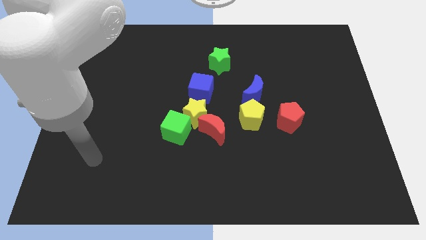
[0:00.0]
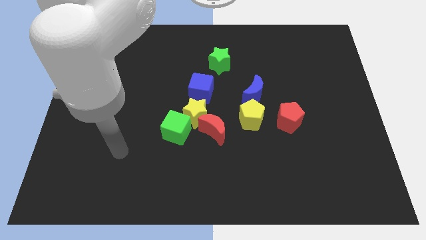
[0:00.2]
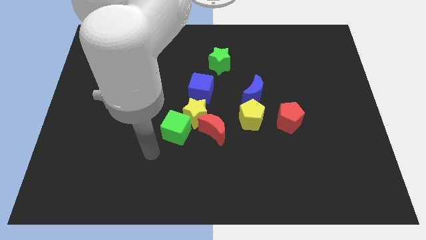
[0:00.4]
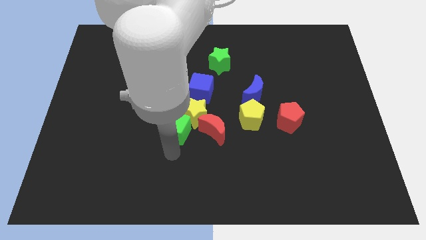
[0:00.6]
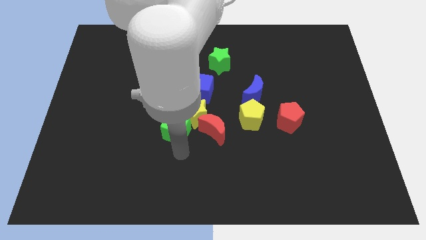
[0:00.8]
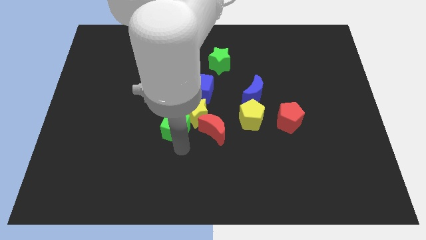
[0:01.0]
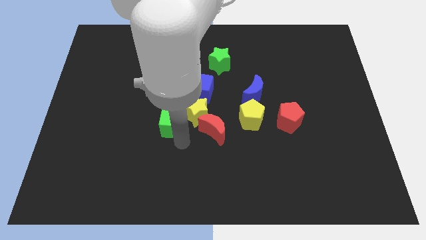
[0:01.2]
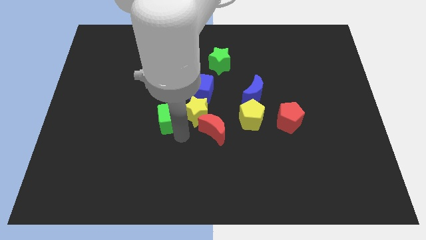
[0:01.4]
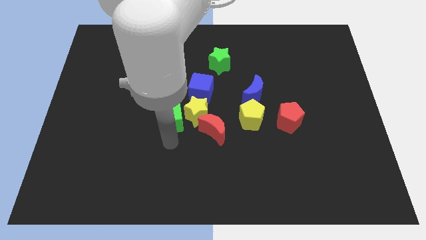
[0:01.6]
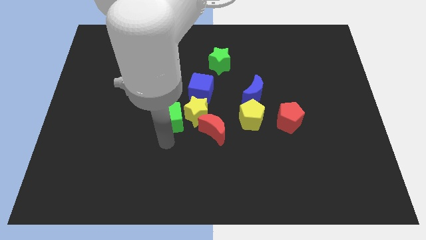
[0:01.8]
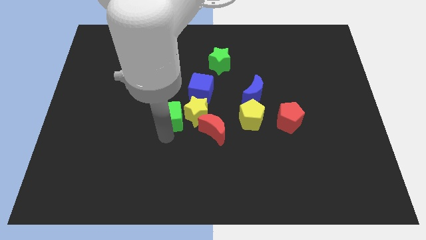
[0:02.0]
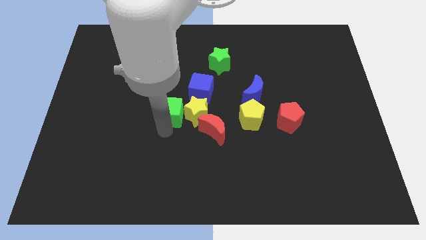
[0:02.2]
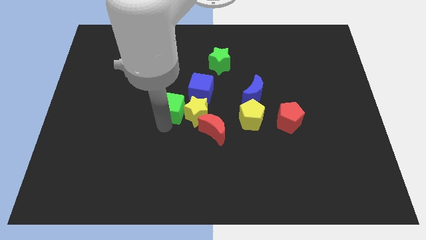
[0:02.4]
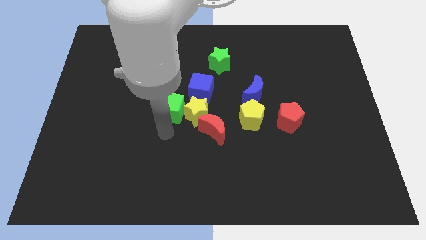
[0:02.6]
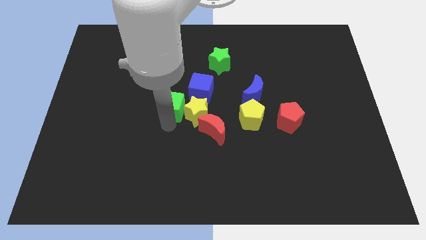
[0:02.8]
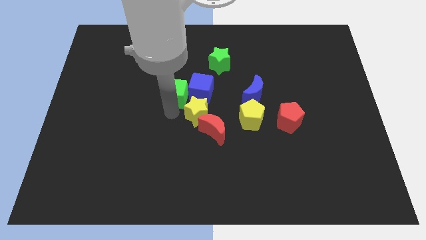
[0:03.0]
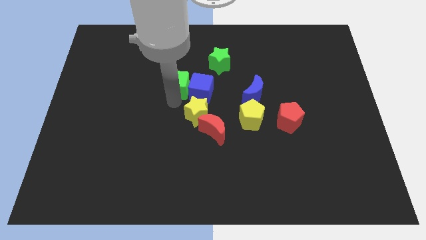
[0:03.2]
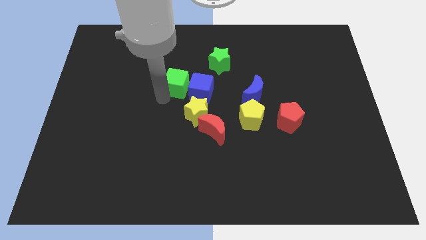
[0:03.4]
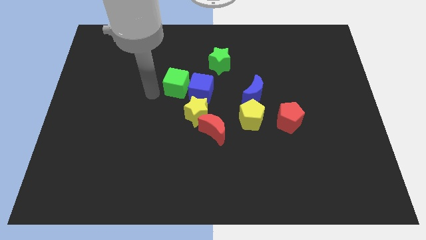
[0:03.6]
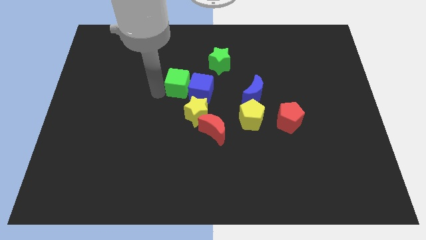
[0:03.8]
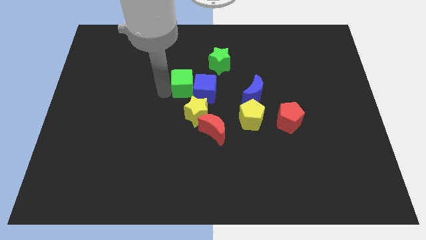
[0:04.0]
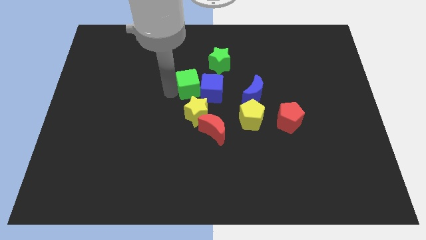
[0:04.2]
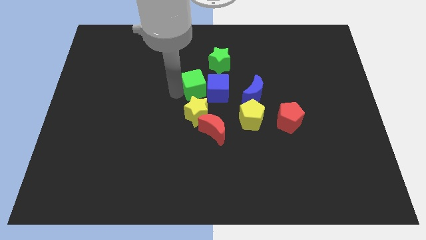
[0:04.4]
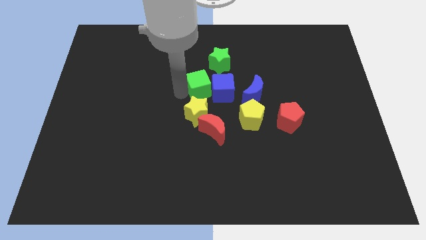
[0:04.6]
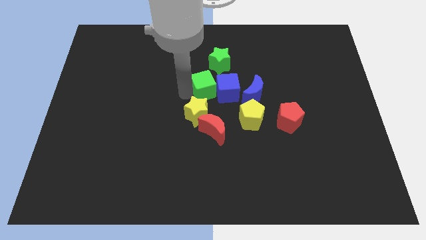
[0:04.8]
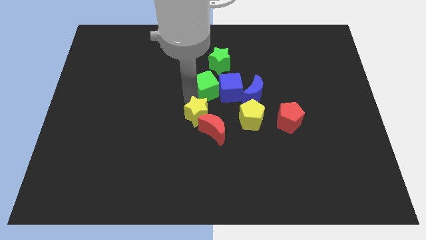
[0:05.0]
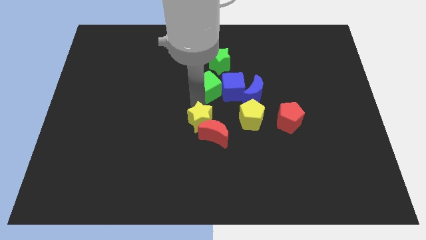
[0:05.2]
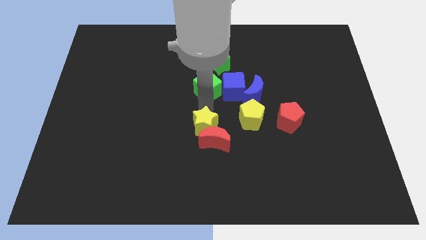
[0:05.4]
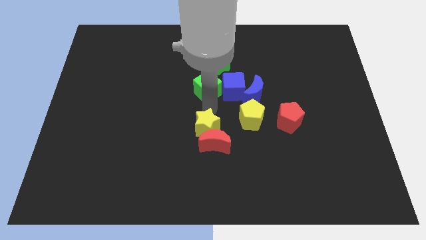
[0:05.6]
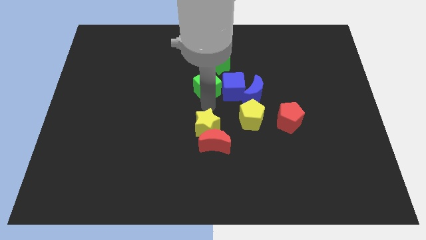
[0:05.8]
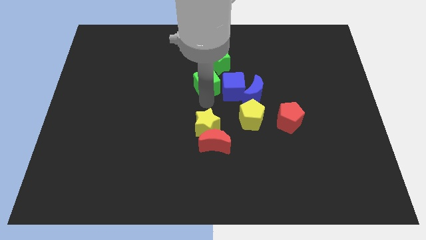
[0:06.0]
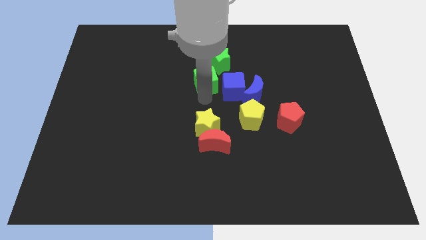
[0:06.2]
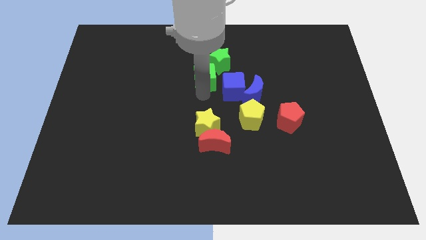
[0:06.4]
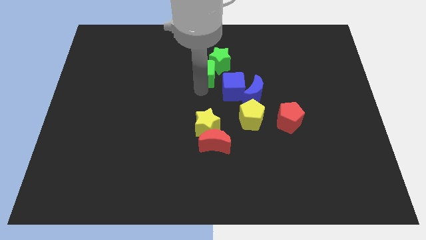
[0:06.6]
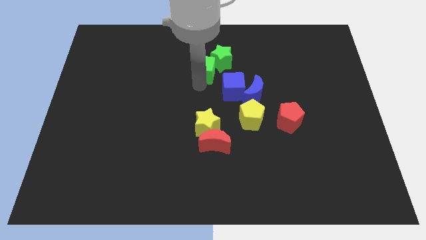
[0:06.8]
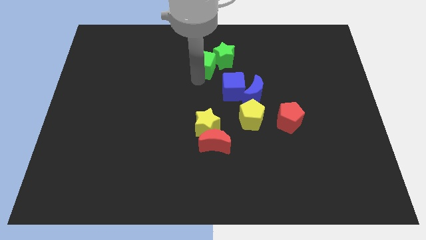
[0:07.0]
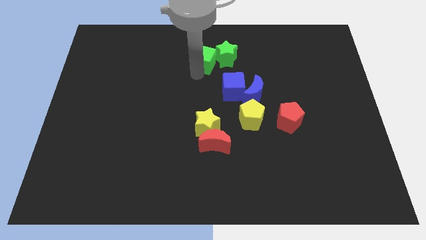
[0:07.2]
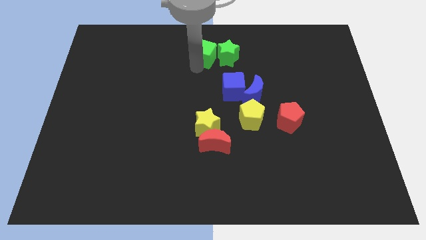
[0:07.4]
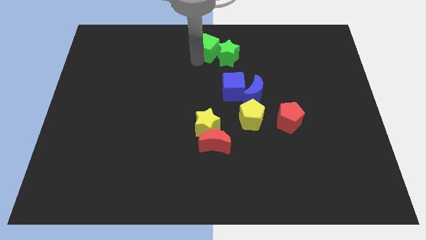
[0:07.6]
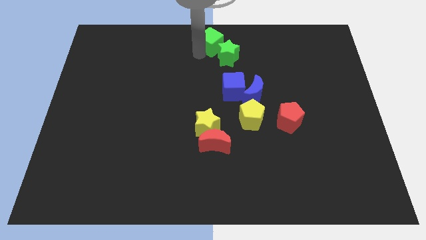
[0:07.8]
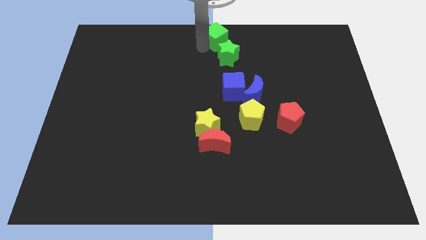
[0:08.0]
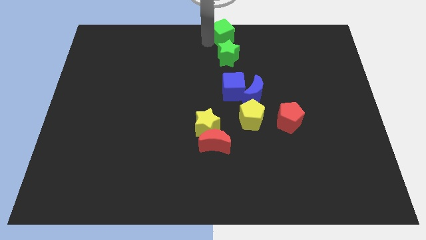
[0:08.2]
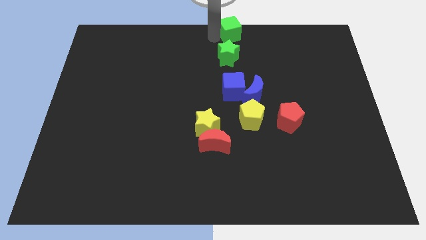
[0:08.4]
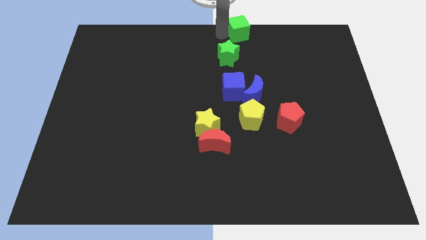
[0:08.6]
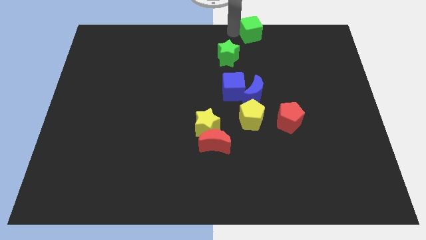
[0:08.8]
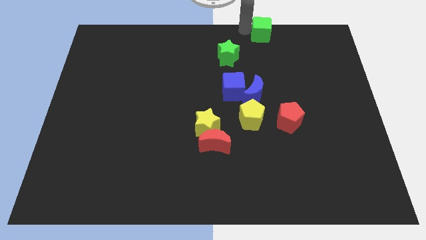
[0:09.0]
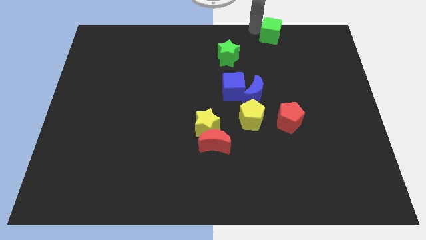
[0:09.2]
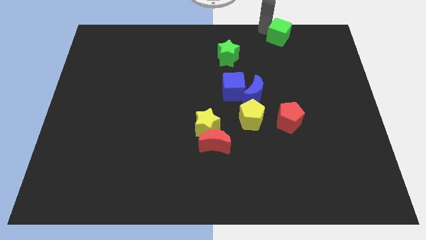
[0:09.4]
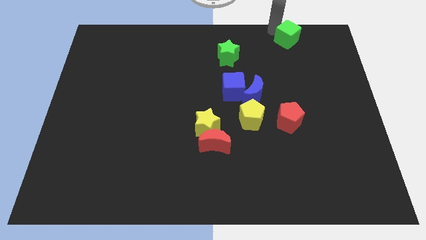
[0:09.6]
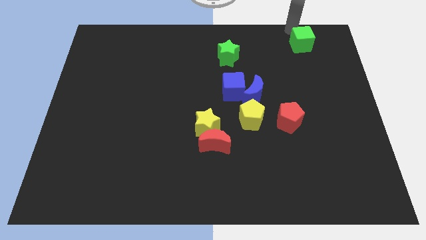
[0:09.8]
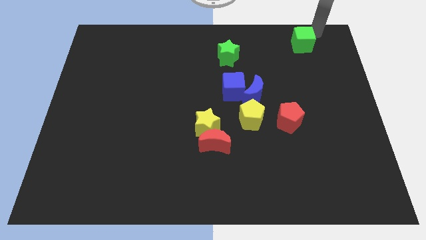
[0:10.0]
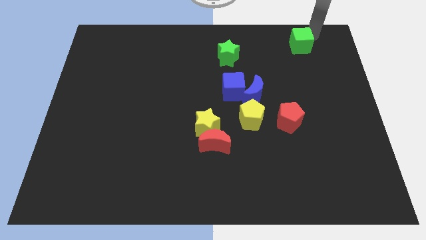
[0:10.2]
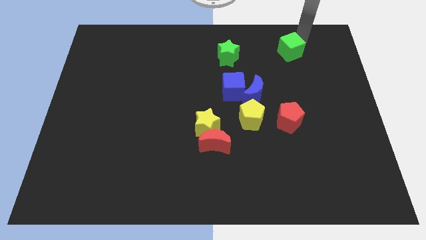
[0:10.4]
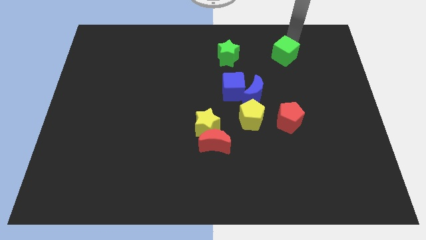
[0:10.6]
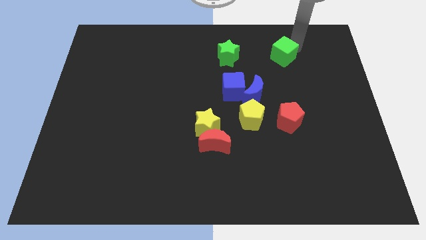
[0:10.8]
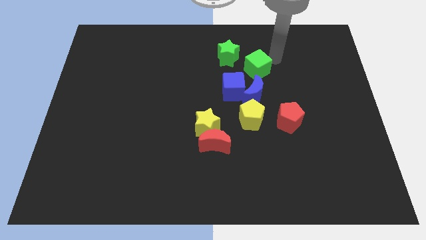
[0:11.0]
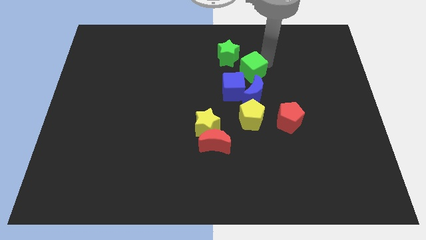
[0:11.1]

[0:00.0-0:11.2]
put the green cube to the top side of the yellow pentagon

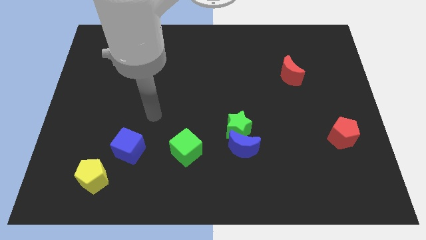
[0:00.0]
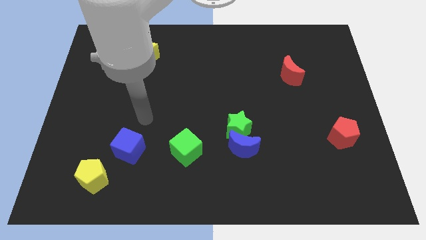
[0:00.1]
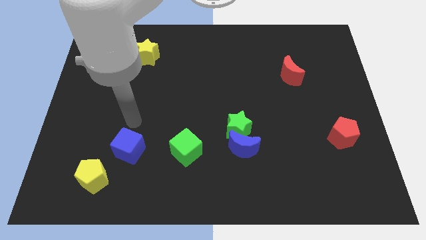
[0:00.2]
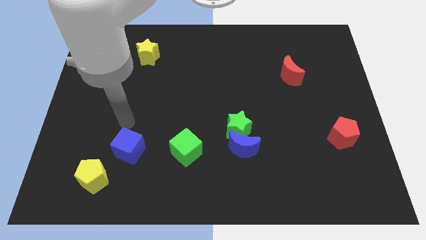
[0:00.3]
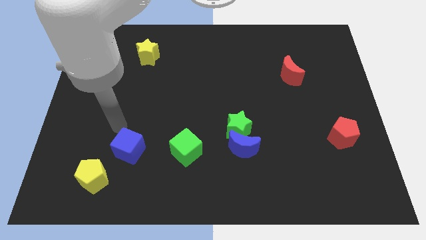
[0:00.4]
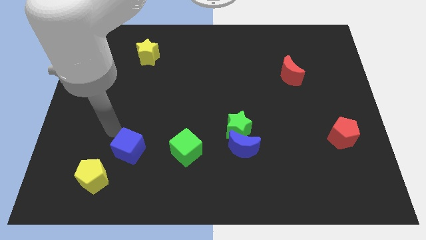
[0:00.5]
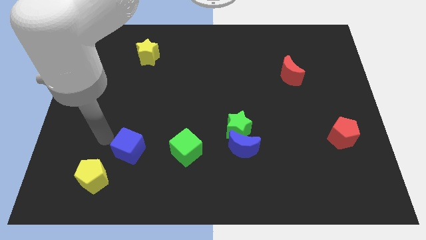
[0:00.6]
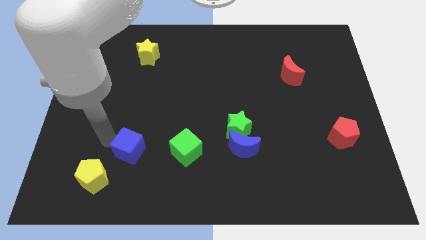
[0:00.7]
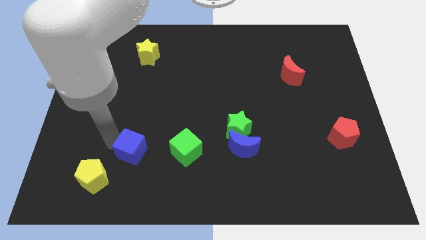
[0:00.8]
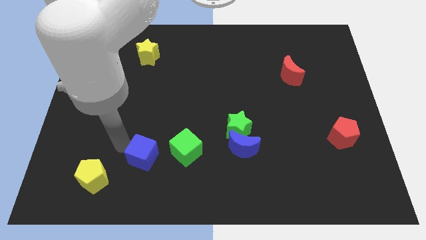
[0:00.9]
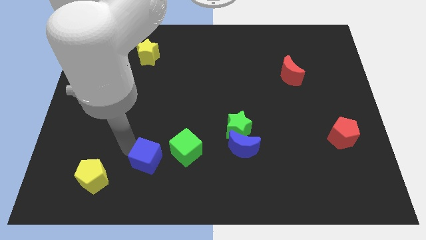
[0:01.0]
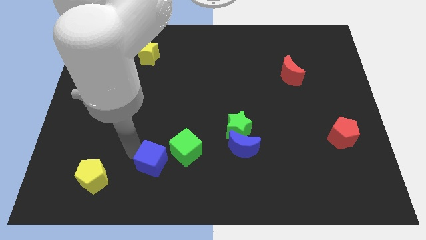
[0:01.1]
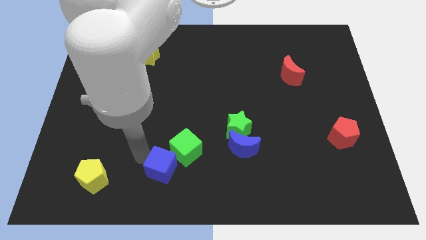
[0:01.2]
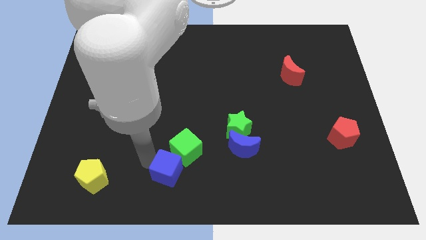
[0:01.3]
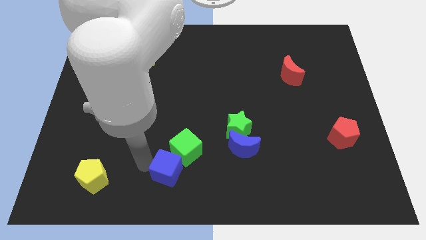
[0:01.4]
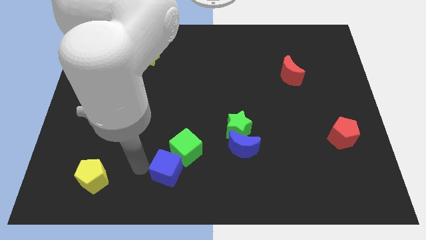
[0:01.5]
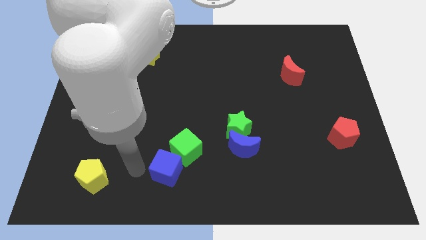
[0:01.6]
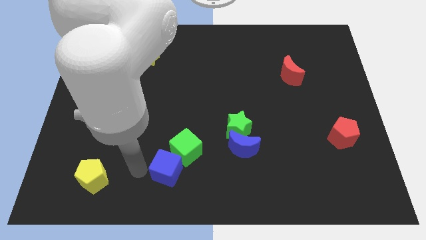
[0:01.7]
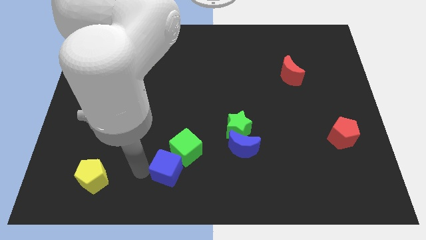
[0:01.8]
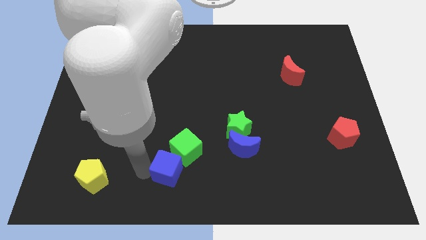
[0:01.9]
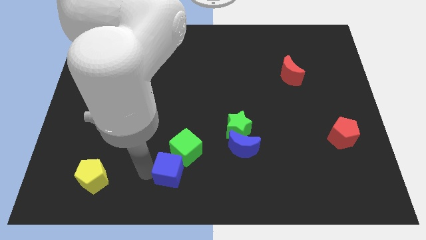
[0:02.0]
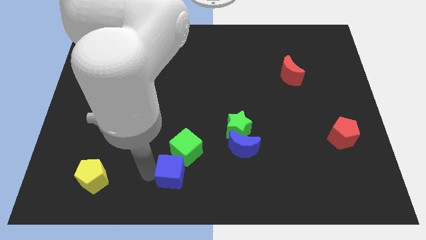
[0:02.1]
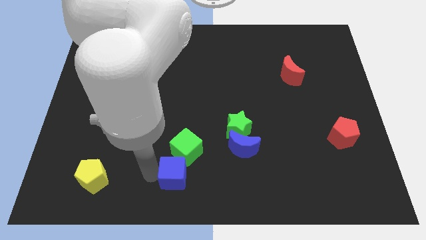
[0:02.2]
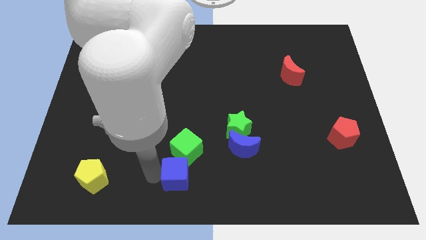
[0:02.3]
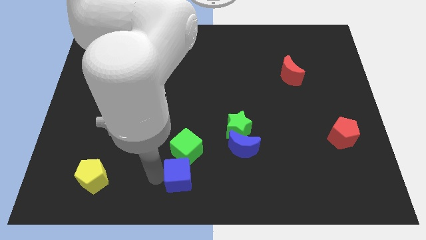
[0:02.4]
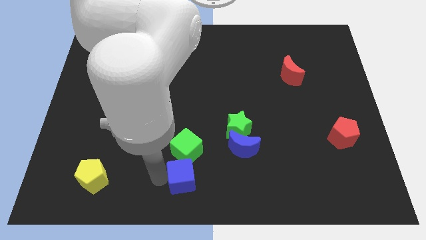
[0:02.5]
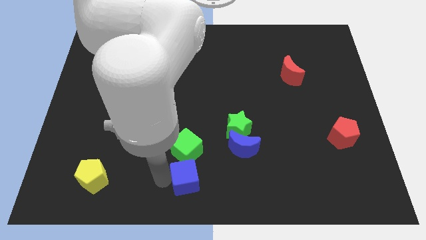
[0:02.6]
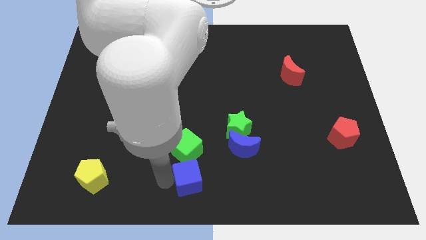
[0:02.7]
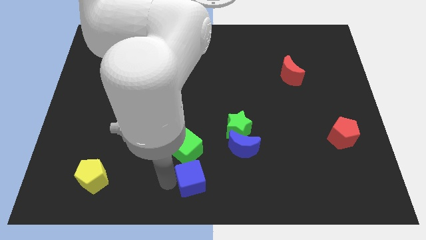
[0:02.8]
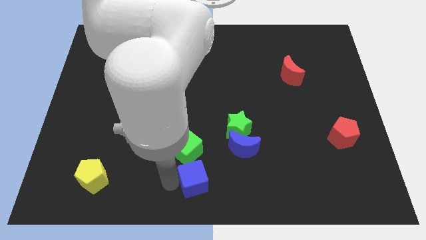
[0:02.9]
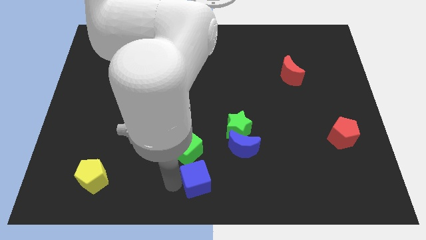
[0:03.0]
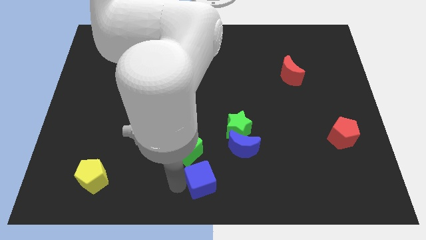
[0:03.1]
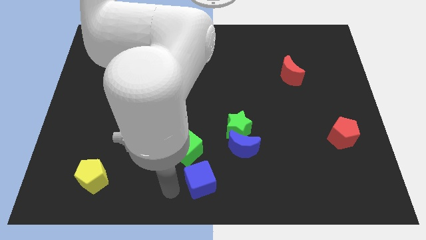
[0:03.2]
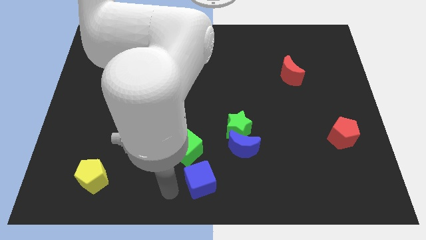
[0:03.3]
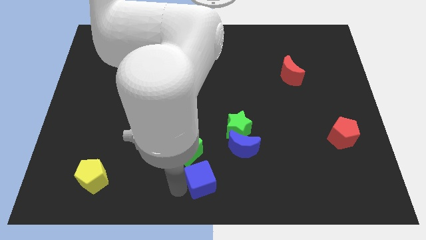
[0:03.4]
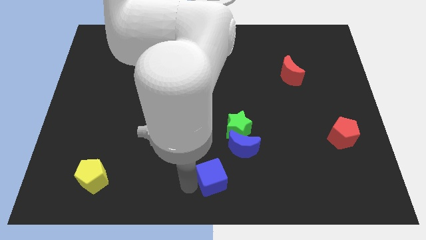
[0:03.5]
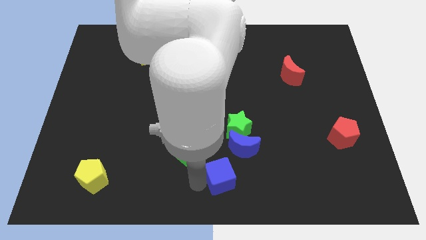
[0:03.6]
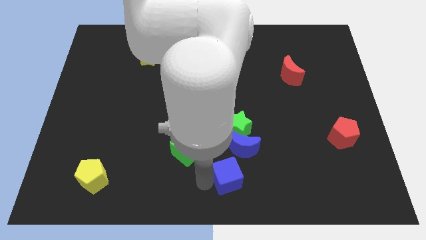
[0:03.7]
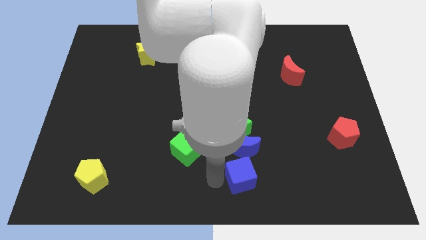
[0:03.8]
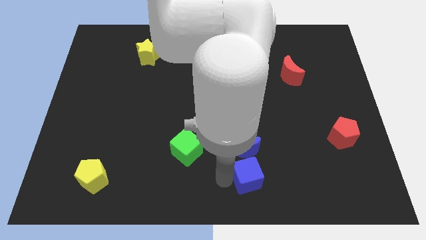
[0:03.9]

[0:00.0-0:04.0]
put the blue cube to the bottom right side of the blue moon
